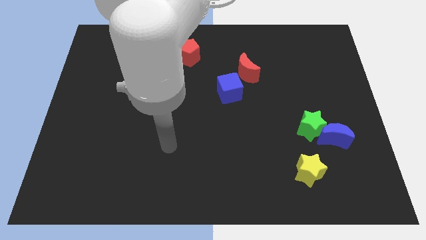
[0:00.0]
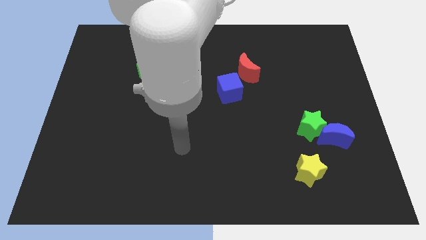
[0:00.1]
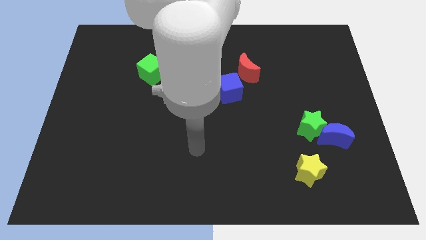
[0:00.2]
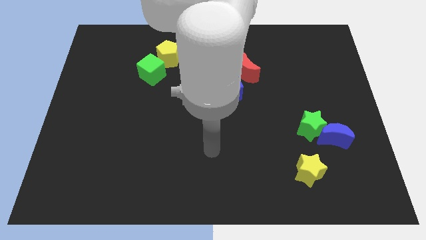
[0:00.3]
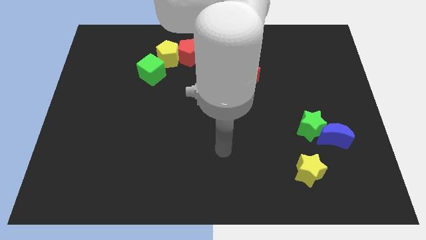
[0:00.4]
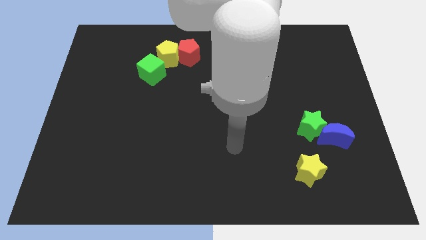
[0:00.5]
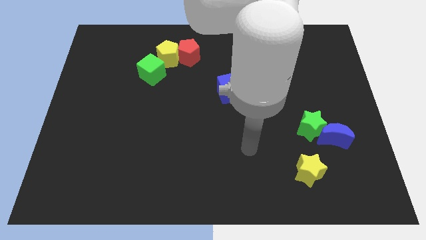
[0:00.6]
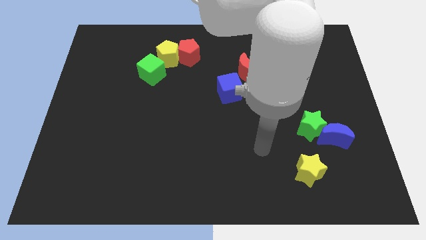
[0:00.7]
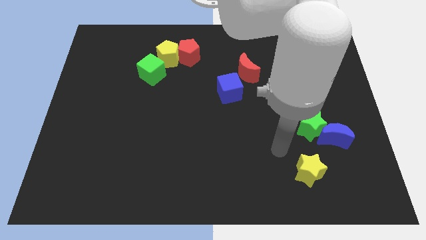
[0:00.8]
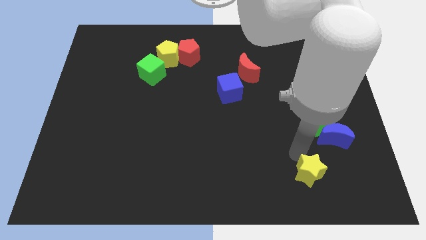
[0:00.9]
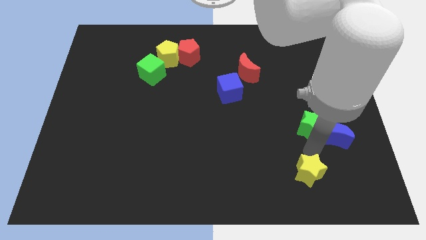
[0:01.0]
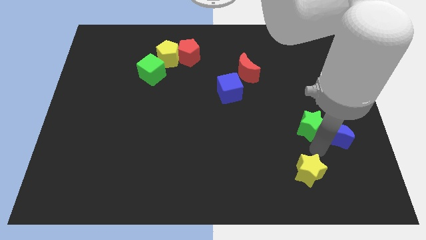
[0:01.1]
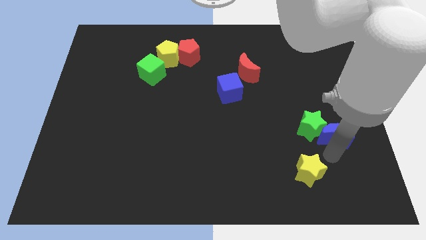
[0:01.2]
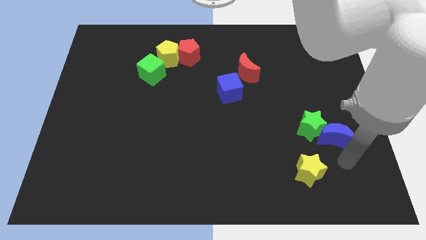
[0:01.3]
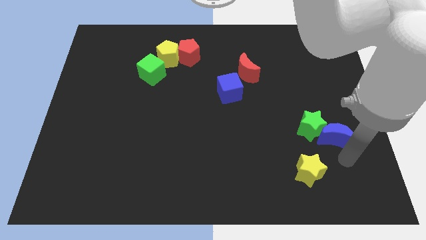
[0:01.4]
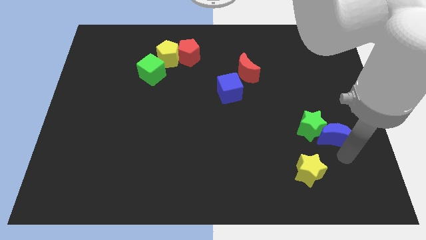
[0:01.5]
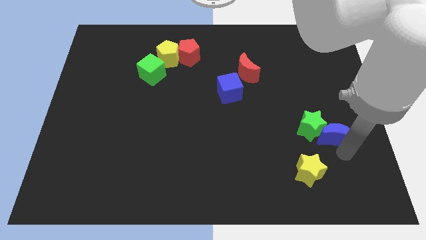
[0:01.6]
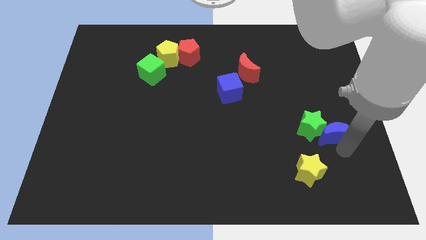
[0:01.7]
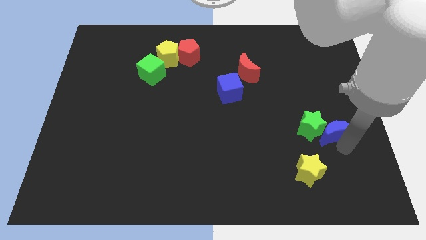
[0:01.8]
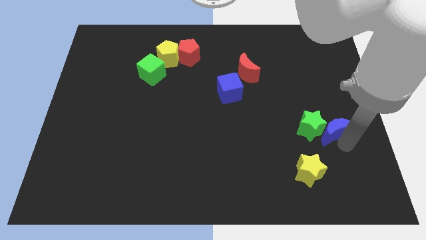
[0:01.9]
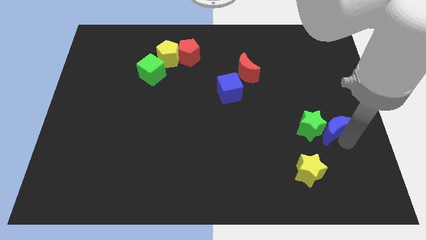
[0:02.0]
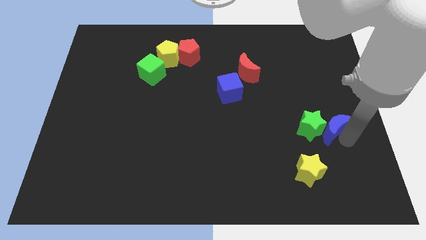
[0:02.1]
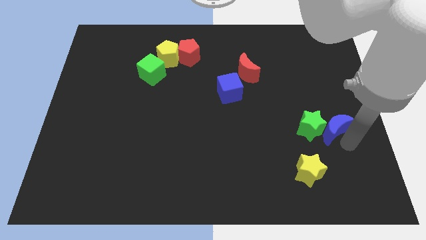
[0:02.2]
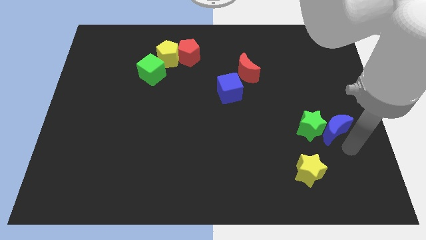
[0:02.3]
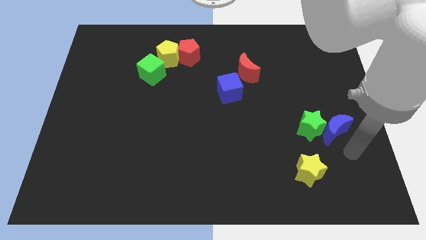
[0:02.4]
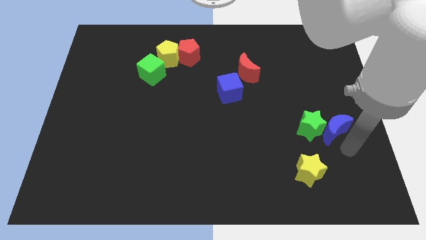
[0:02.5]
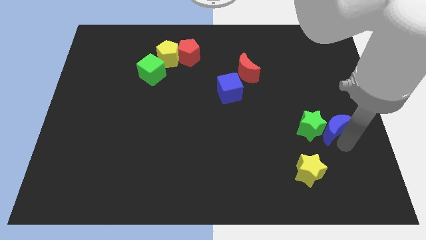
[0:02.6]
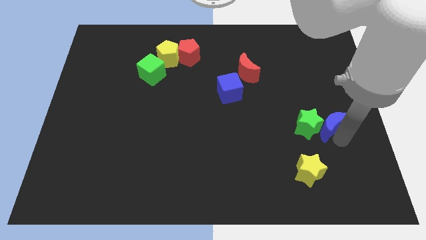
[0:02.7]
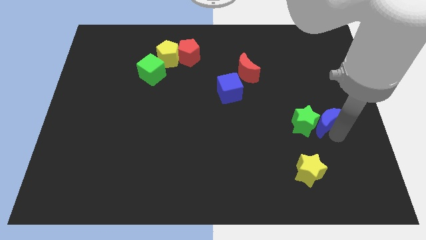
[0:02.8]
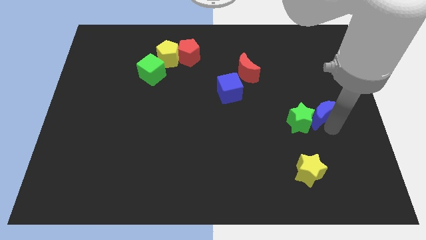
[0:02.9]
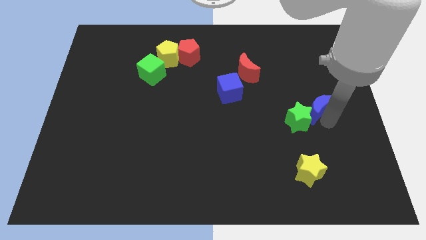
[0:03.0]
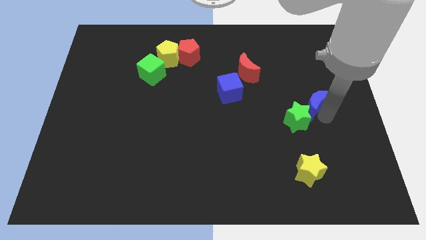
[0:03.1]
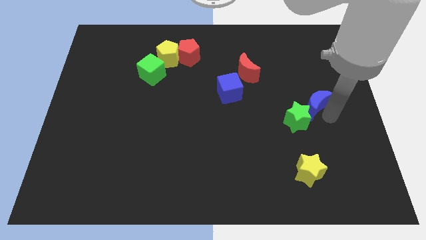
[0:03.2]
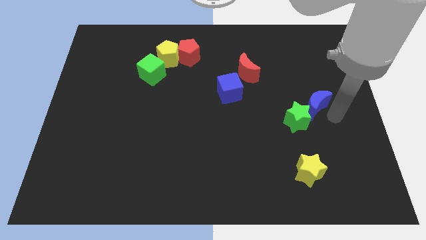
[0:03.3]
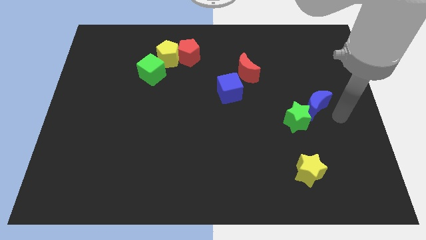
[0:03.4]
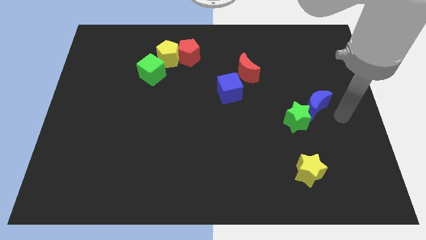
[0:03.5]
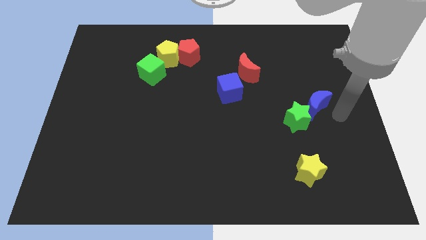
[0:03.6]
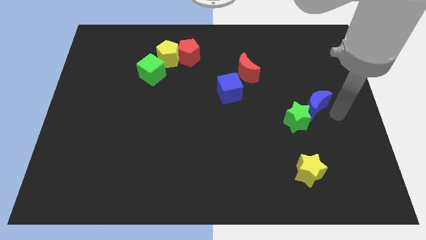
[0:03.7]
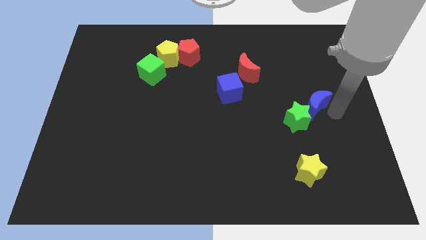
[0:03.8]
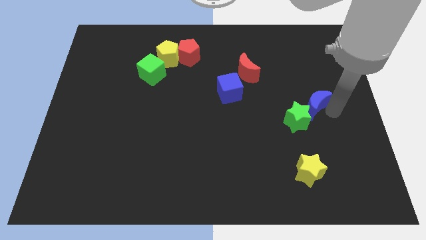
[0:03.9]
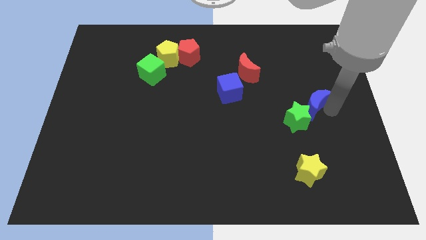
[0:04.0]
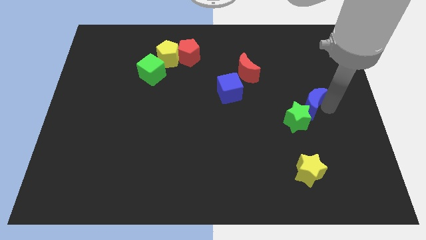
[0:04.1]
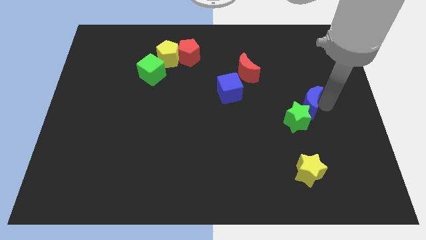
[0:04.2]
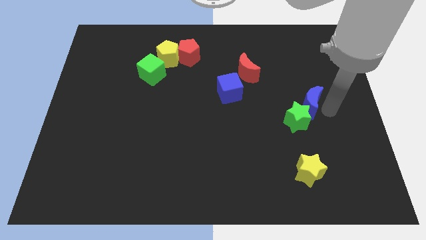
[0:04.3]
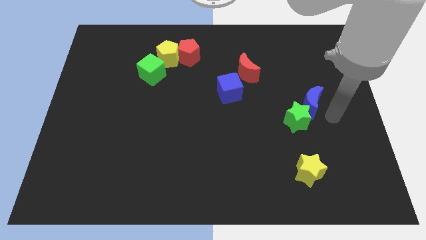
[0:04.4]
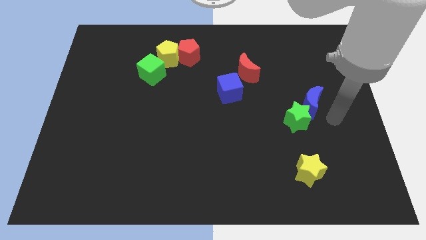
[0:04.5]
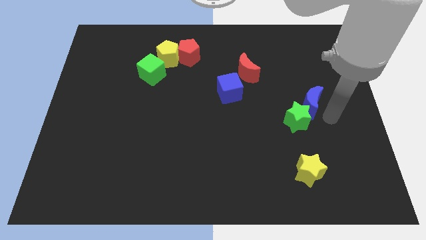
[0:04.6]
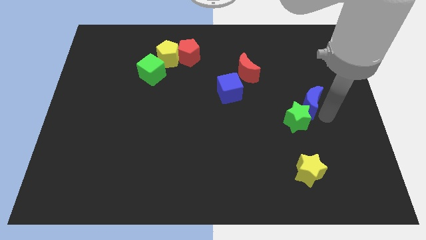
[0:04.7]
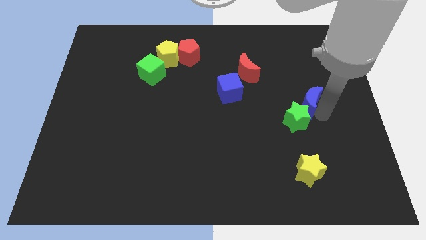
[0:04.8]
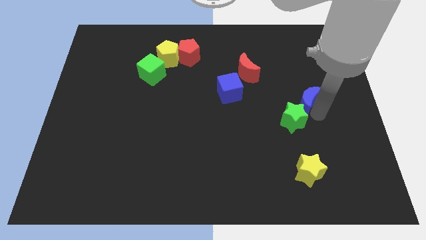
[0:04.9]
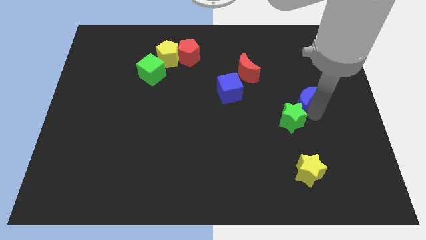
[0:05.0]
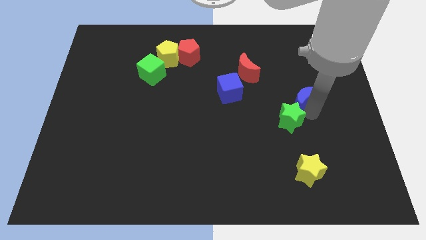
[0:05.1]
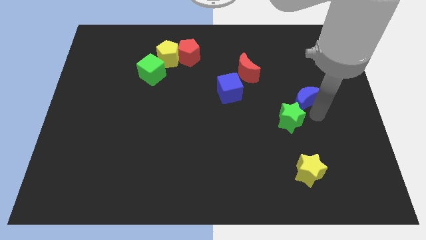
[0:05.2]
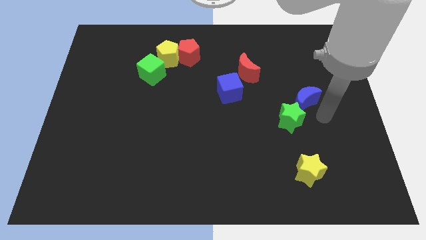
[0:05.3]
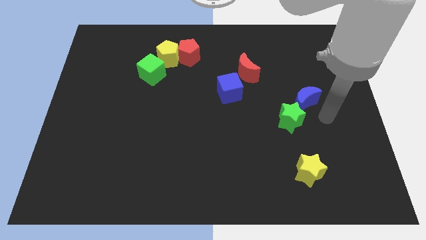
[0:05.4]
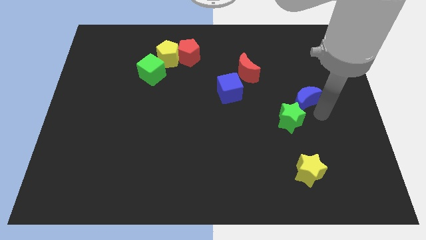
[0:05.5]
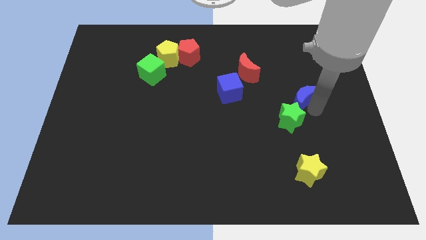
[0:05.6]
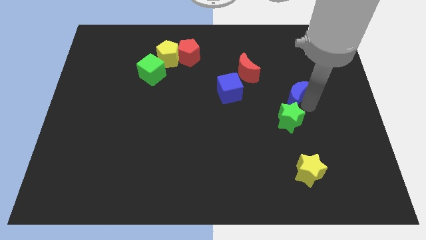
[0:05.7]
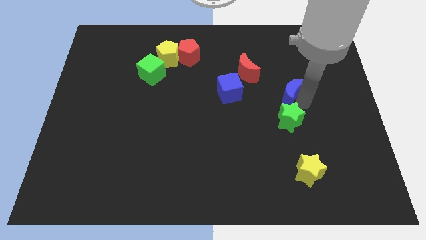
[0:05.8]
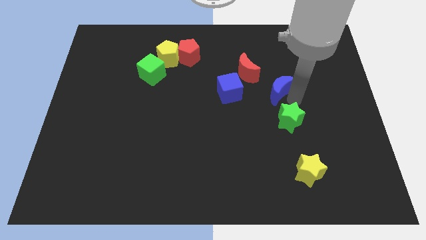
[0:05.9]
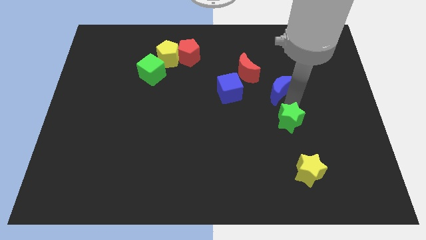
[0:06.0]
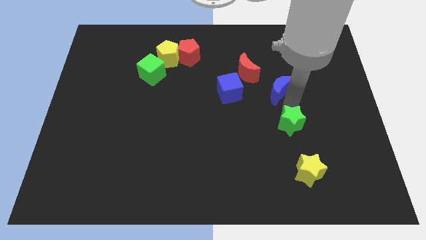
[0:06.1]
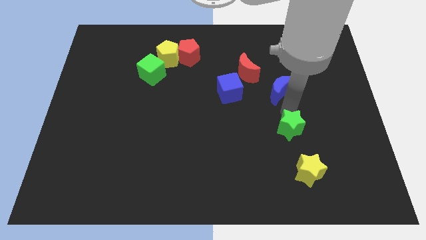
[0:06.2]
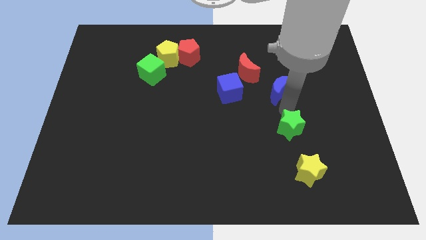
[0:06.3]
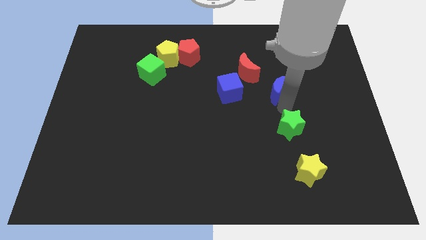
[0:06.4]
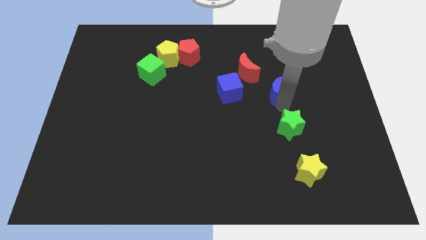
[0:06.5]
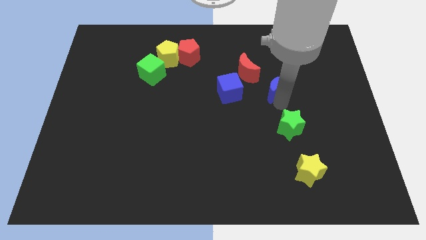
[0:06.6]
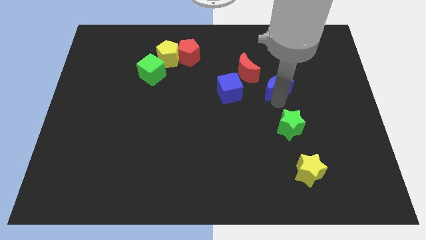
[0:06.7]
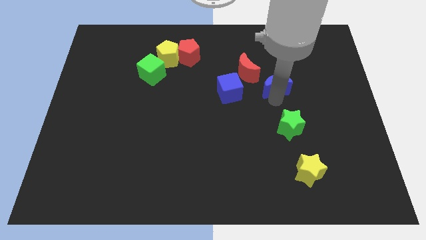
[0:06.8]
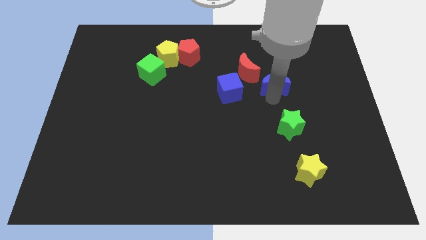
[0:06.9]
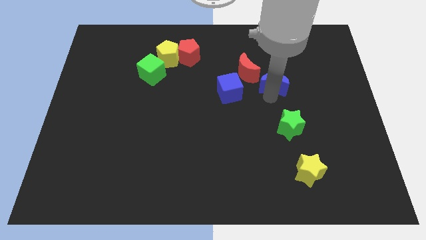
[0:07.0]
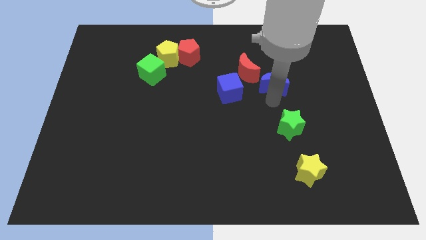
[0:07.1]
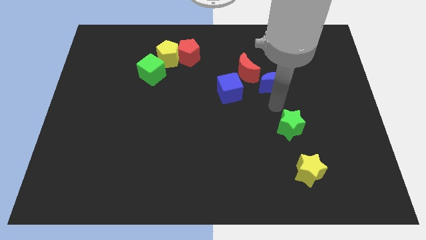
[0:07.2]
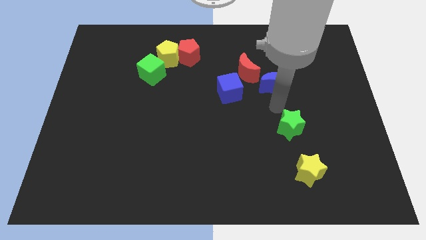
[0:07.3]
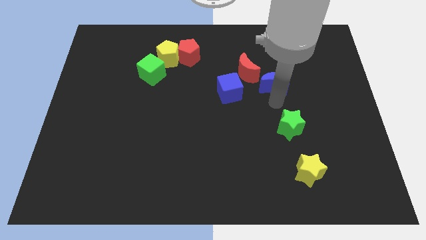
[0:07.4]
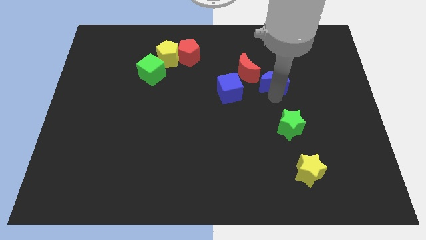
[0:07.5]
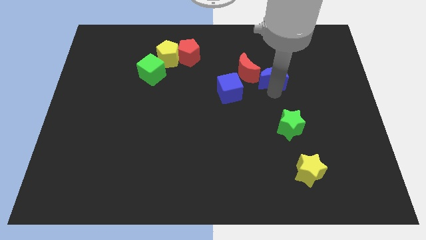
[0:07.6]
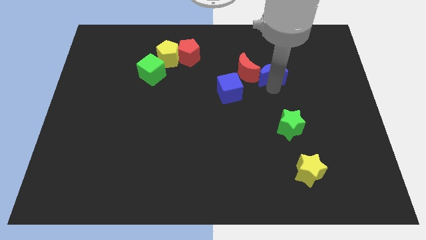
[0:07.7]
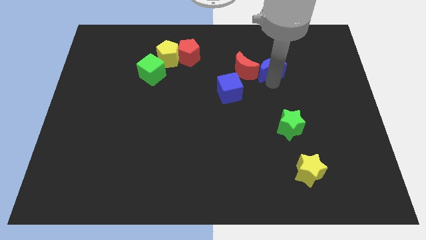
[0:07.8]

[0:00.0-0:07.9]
put the blue moon to the top right side of the red moon

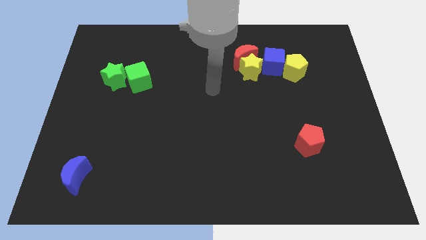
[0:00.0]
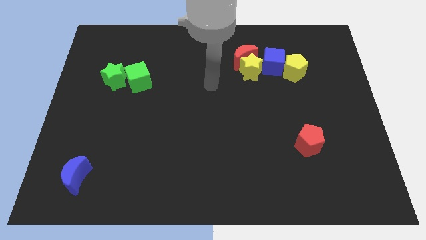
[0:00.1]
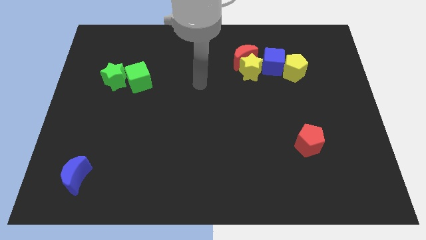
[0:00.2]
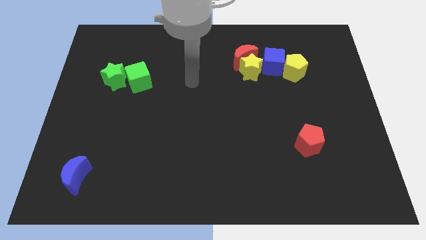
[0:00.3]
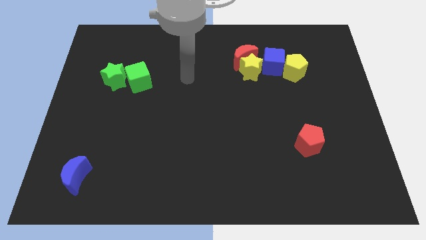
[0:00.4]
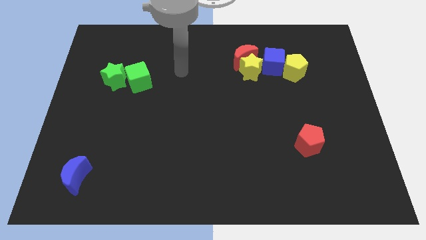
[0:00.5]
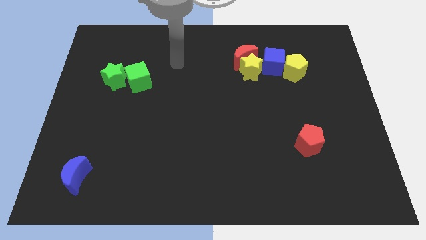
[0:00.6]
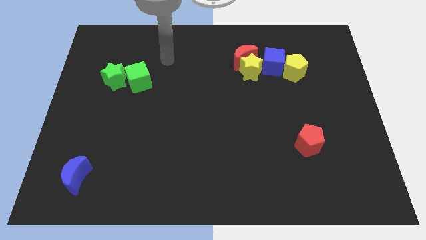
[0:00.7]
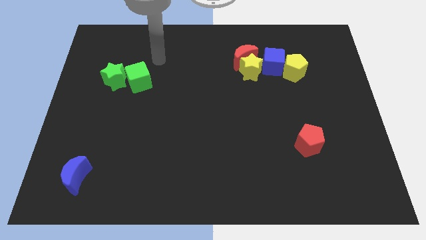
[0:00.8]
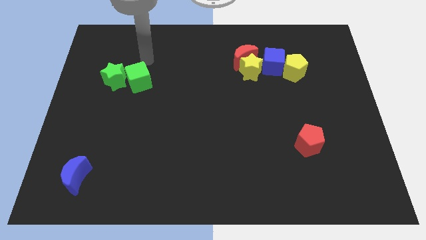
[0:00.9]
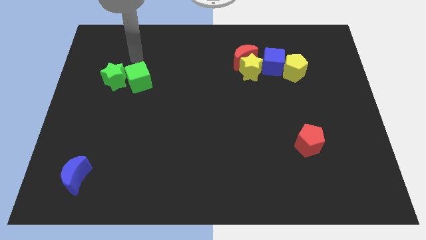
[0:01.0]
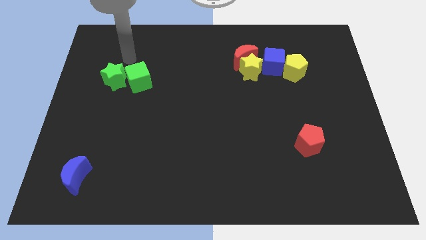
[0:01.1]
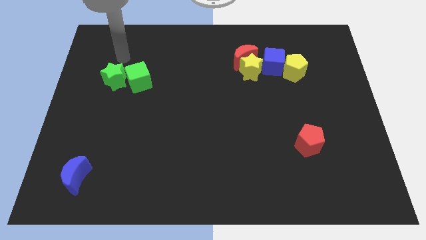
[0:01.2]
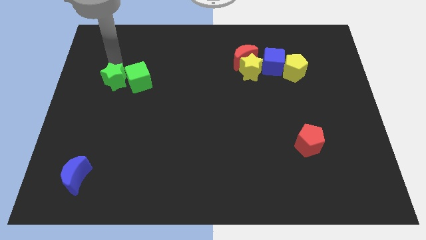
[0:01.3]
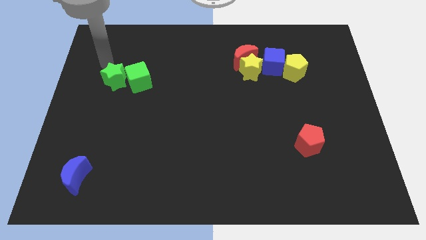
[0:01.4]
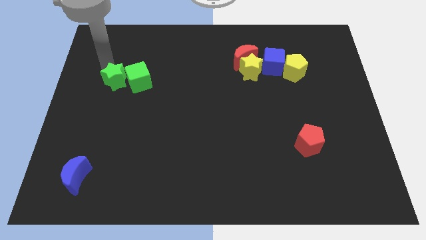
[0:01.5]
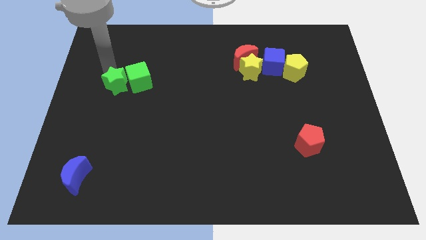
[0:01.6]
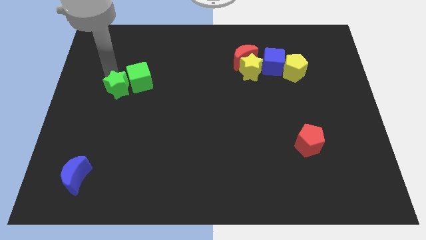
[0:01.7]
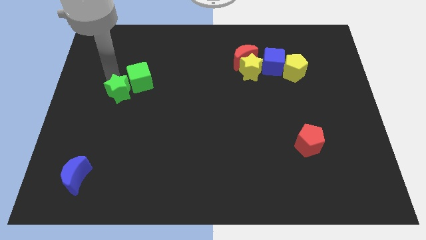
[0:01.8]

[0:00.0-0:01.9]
slide the green star below the green cube
